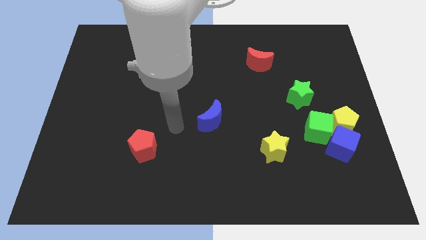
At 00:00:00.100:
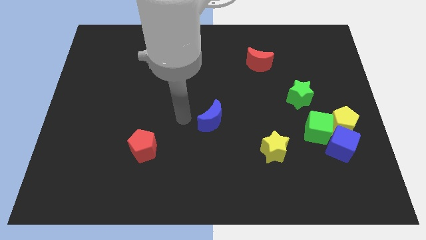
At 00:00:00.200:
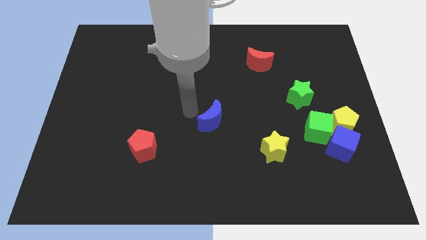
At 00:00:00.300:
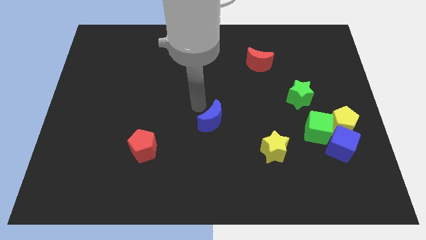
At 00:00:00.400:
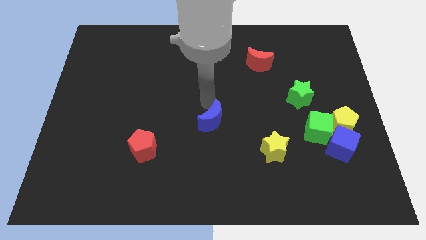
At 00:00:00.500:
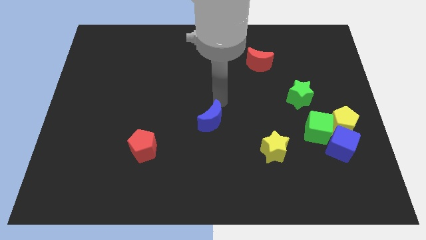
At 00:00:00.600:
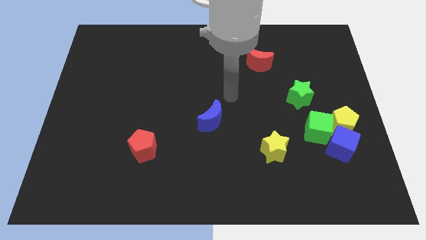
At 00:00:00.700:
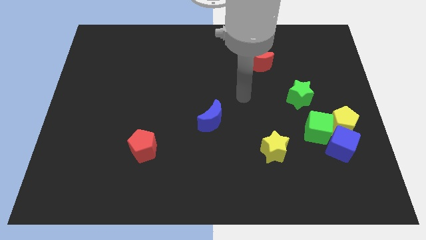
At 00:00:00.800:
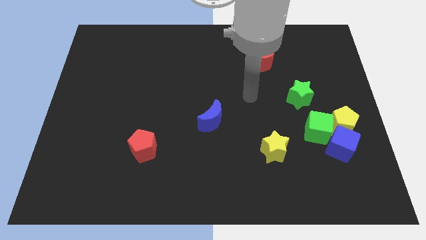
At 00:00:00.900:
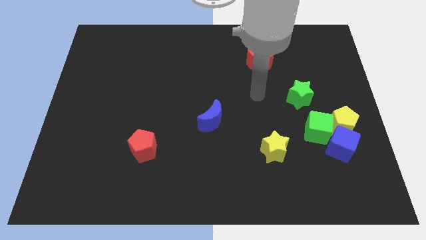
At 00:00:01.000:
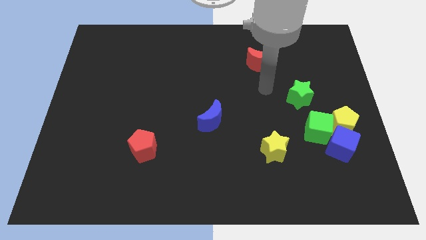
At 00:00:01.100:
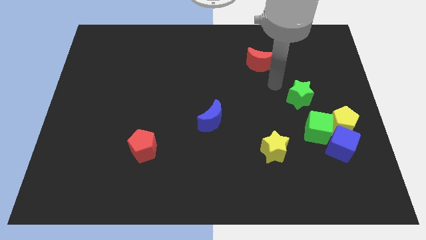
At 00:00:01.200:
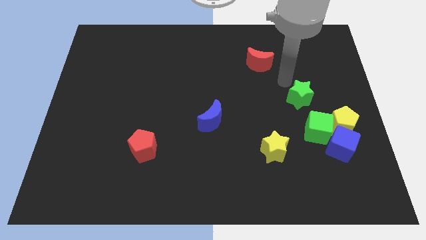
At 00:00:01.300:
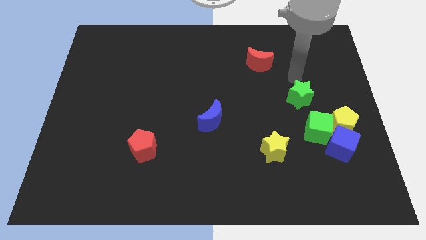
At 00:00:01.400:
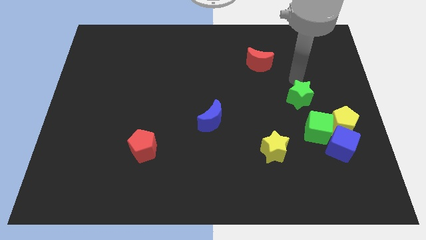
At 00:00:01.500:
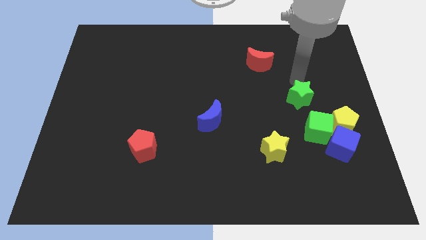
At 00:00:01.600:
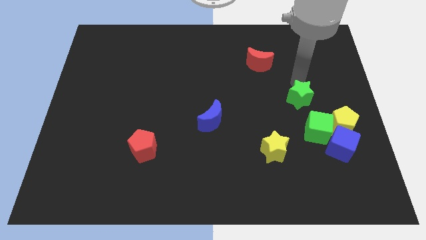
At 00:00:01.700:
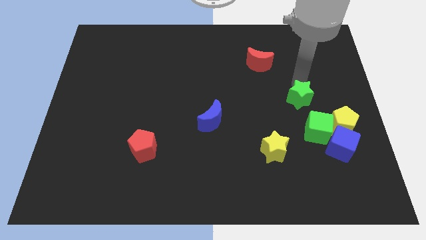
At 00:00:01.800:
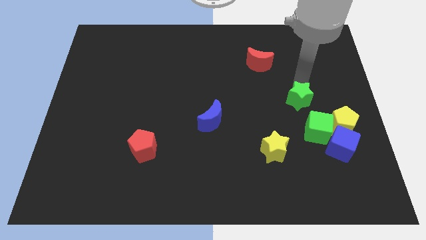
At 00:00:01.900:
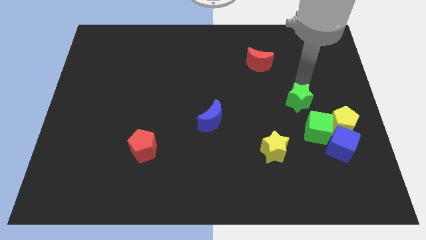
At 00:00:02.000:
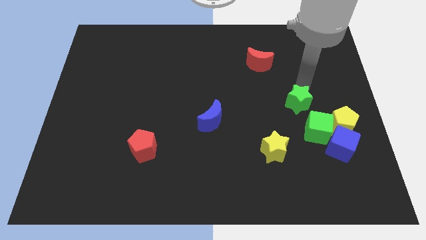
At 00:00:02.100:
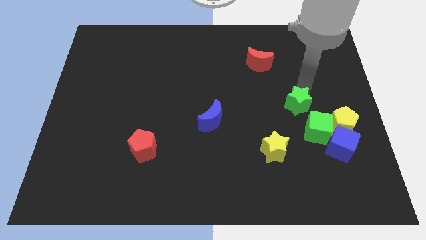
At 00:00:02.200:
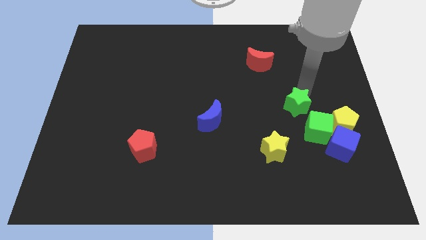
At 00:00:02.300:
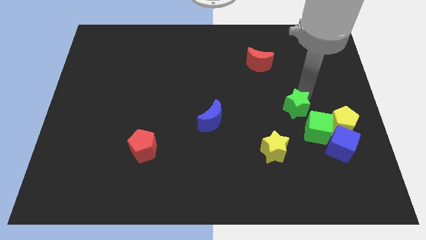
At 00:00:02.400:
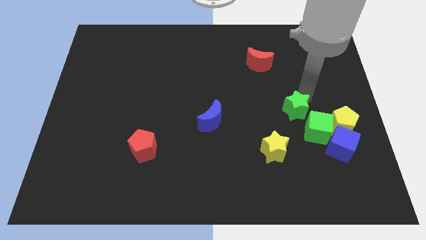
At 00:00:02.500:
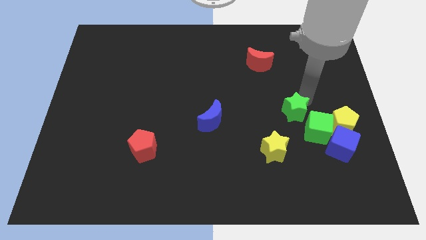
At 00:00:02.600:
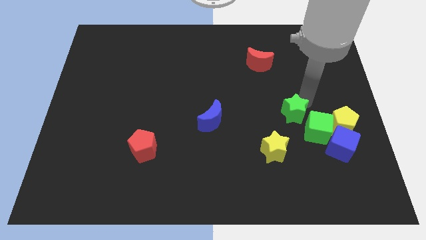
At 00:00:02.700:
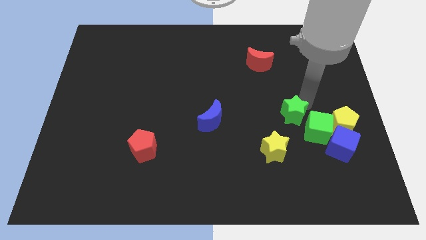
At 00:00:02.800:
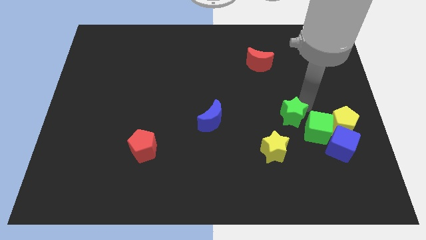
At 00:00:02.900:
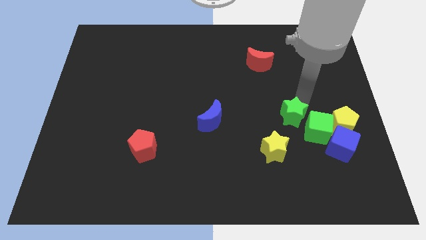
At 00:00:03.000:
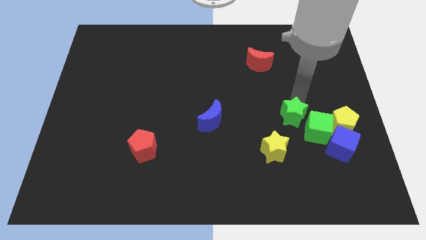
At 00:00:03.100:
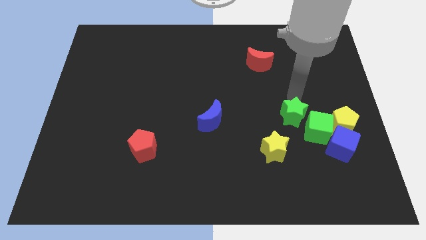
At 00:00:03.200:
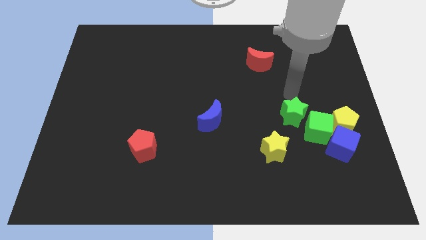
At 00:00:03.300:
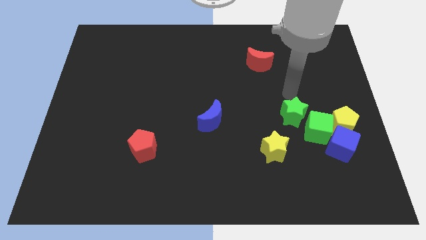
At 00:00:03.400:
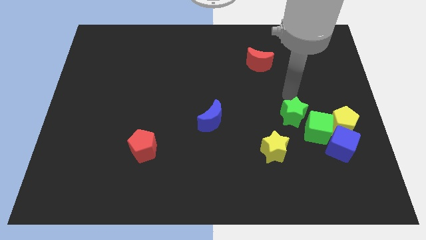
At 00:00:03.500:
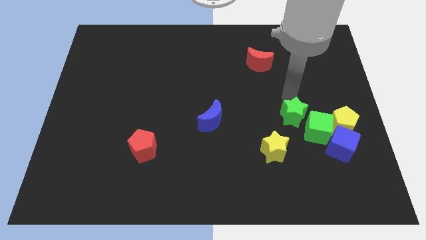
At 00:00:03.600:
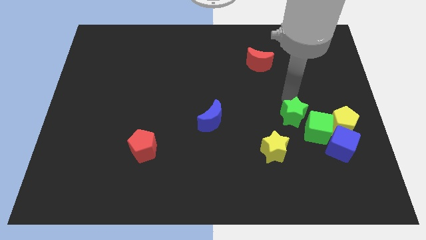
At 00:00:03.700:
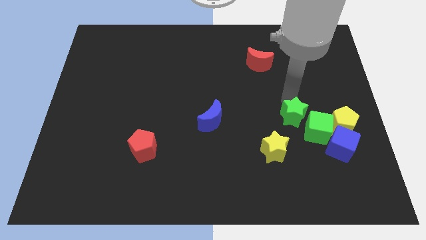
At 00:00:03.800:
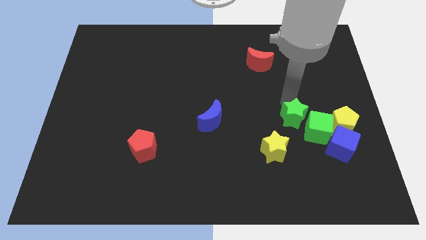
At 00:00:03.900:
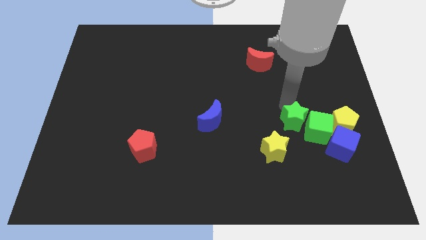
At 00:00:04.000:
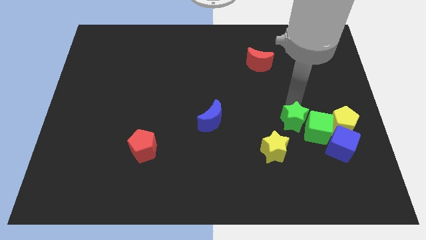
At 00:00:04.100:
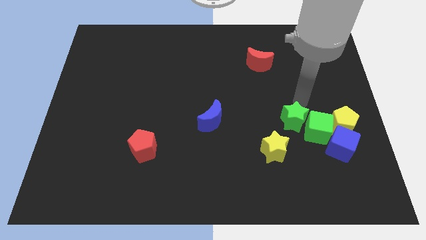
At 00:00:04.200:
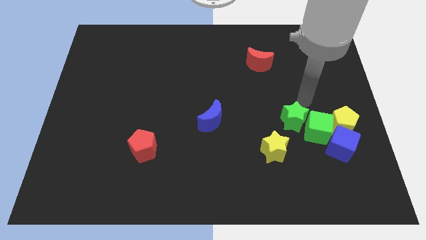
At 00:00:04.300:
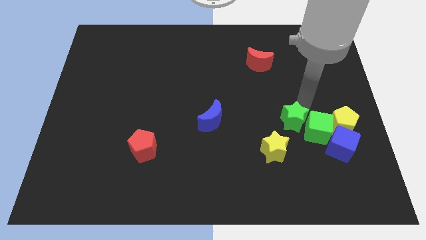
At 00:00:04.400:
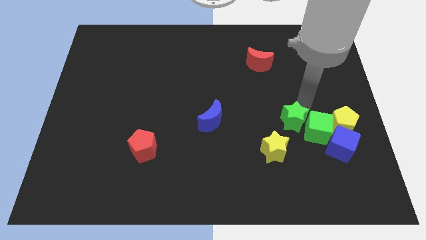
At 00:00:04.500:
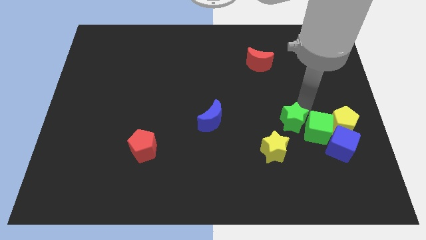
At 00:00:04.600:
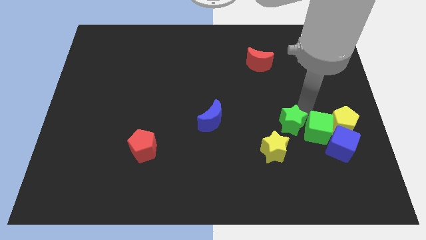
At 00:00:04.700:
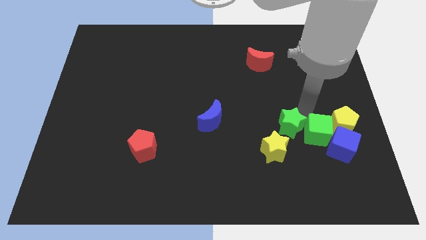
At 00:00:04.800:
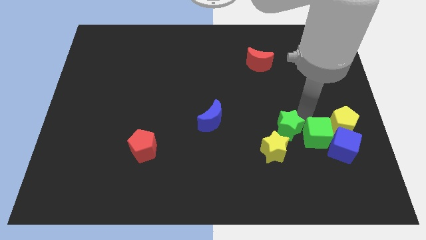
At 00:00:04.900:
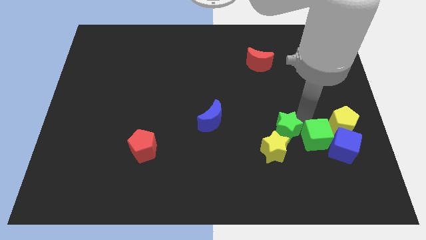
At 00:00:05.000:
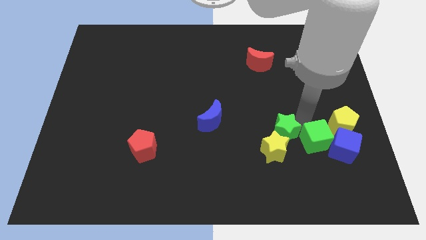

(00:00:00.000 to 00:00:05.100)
put the green star close to the yellow star

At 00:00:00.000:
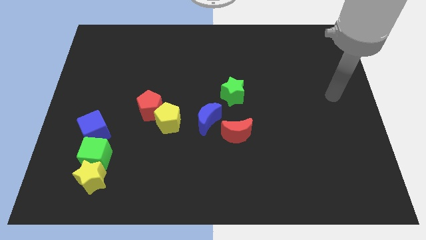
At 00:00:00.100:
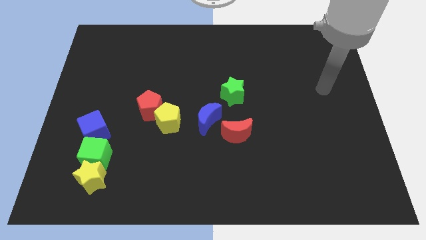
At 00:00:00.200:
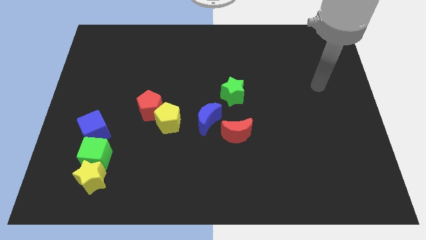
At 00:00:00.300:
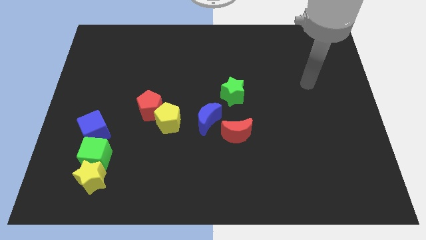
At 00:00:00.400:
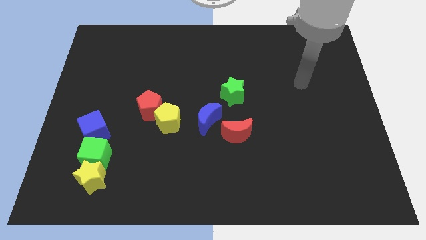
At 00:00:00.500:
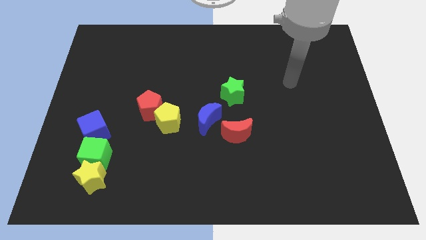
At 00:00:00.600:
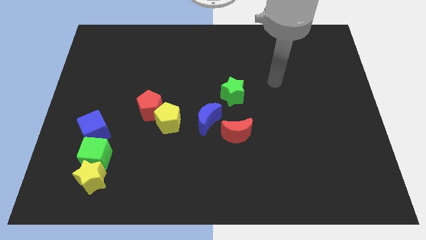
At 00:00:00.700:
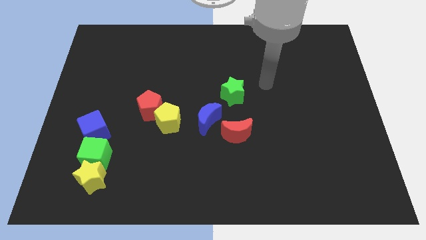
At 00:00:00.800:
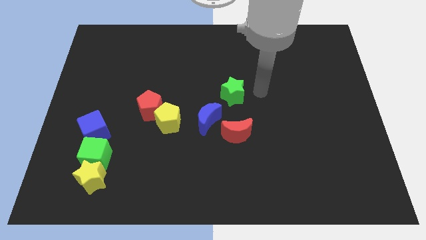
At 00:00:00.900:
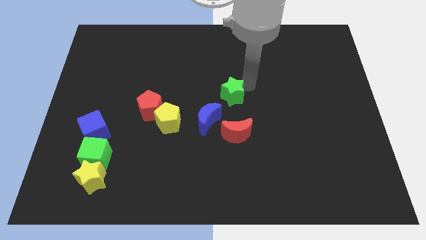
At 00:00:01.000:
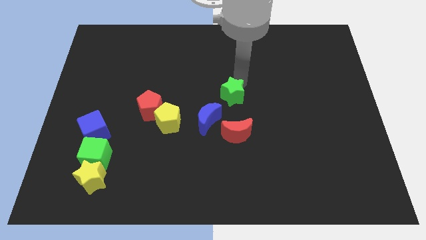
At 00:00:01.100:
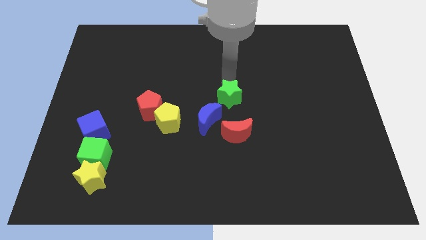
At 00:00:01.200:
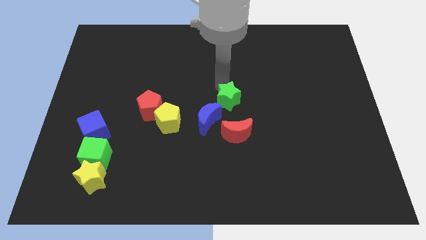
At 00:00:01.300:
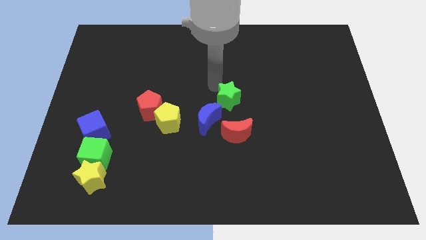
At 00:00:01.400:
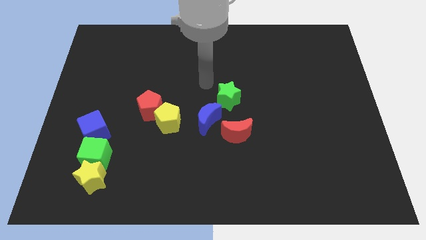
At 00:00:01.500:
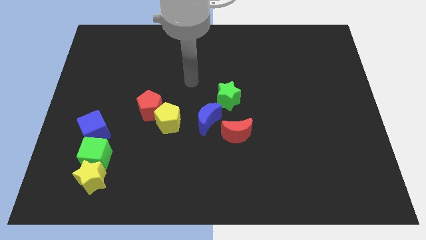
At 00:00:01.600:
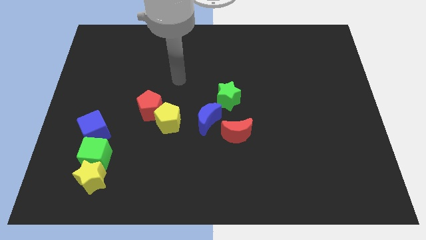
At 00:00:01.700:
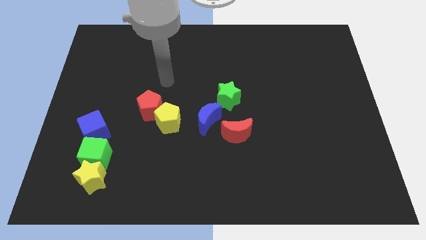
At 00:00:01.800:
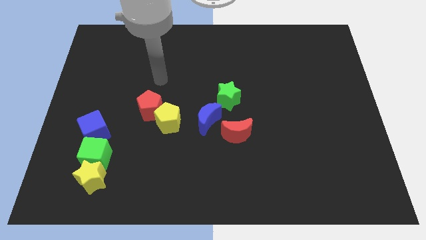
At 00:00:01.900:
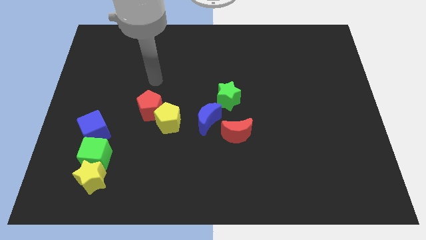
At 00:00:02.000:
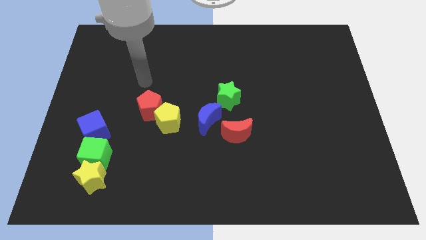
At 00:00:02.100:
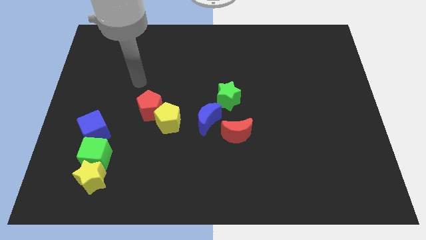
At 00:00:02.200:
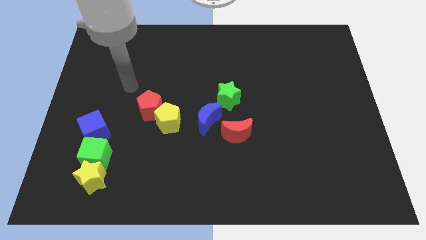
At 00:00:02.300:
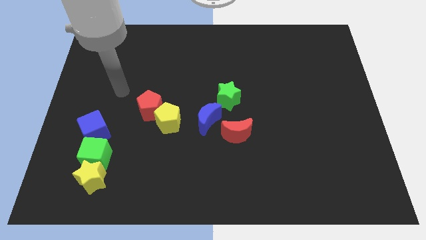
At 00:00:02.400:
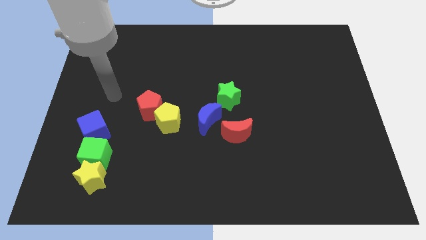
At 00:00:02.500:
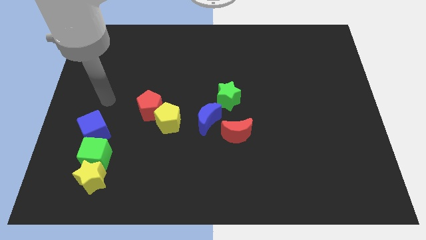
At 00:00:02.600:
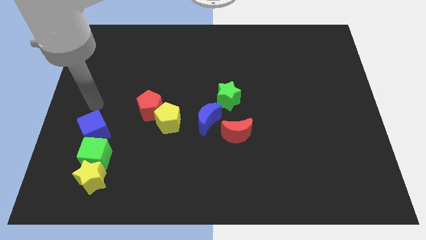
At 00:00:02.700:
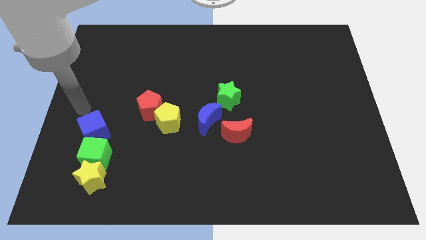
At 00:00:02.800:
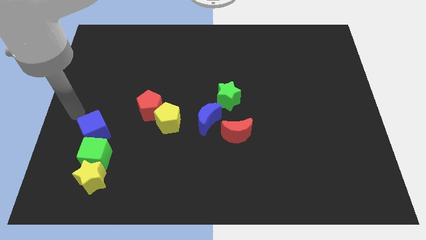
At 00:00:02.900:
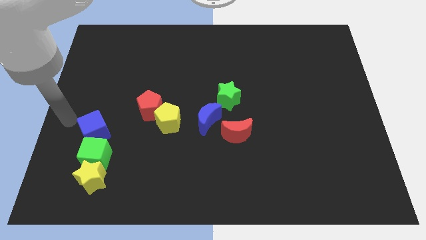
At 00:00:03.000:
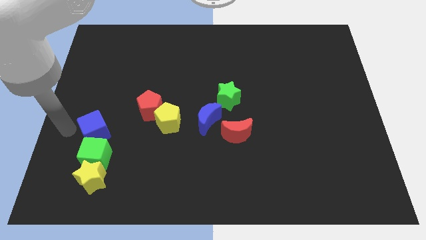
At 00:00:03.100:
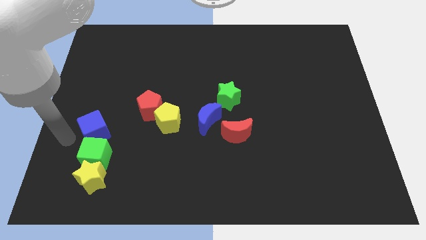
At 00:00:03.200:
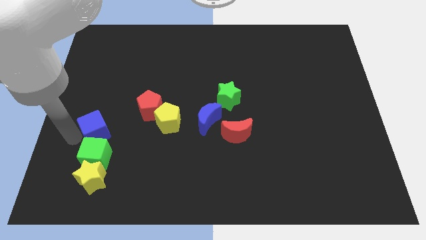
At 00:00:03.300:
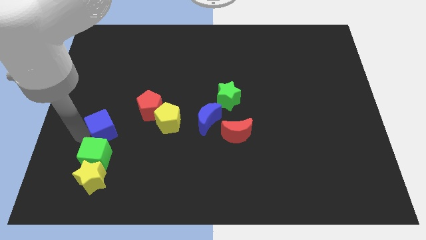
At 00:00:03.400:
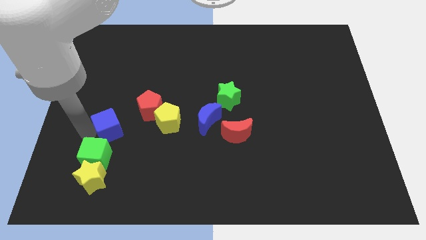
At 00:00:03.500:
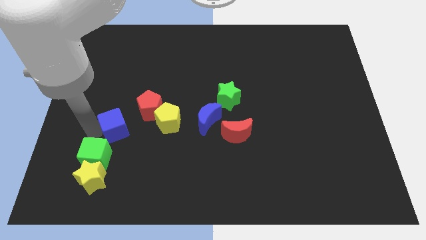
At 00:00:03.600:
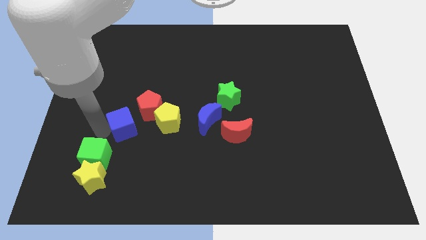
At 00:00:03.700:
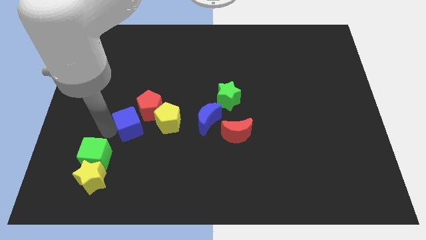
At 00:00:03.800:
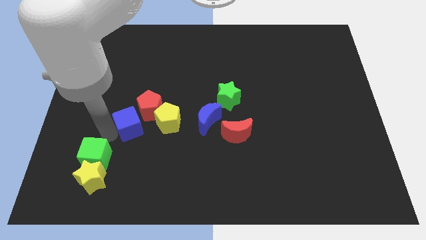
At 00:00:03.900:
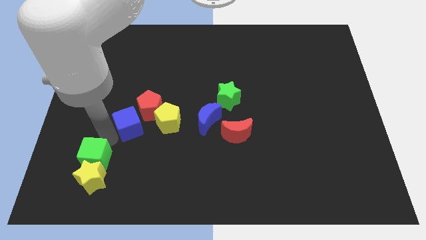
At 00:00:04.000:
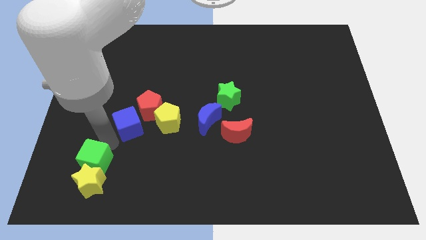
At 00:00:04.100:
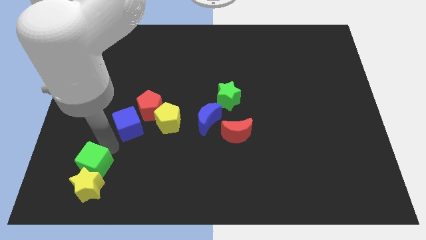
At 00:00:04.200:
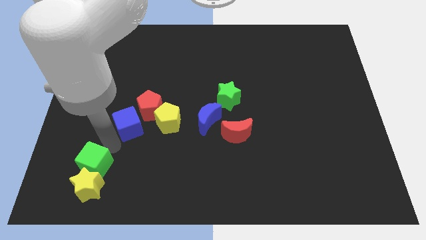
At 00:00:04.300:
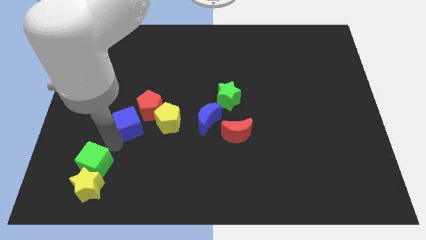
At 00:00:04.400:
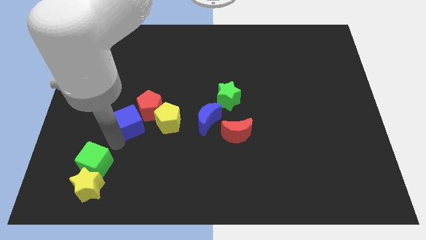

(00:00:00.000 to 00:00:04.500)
slide the blue cube next to the red pentagon
